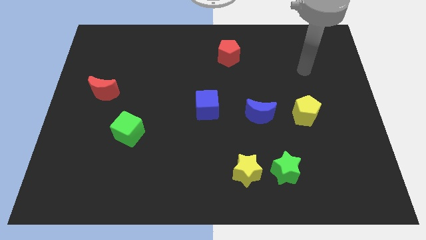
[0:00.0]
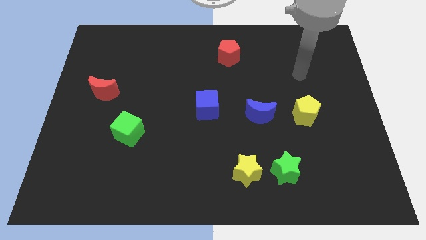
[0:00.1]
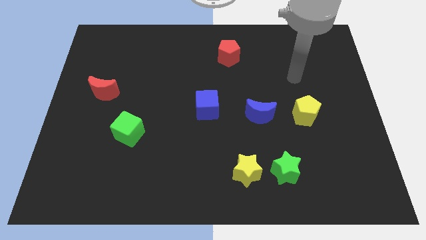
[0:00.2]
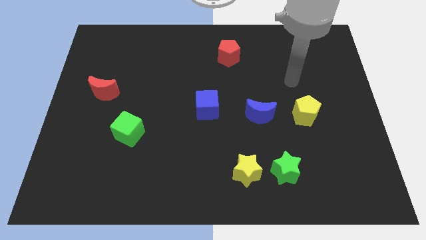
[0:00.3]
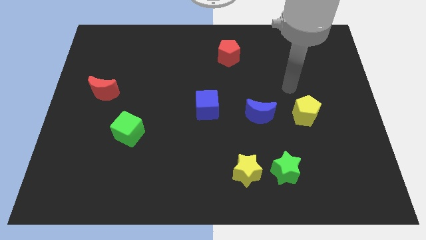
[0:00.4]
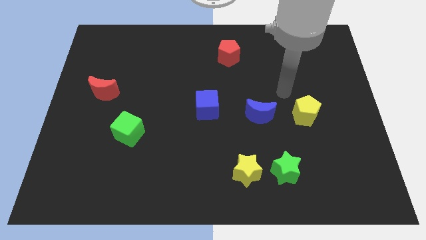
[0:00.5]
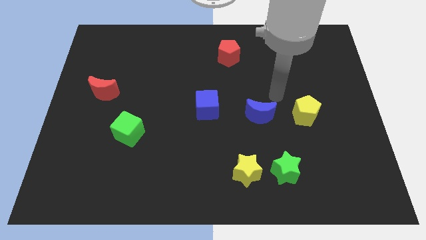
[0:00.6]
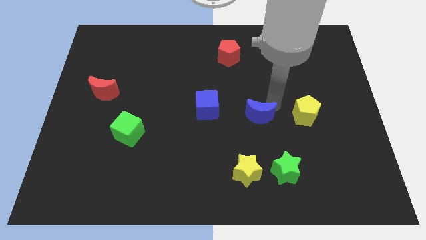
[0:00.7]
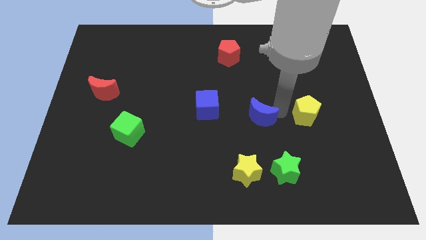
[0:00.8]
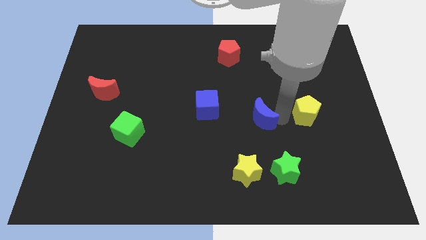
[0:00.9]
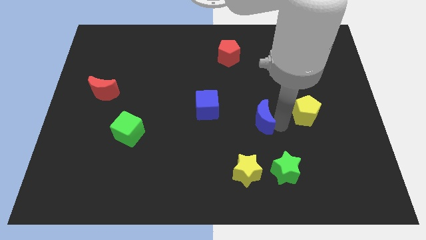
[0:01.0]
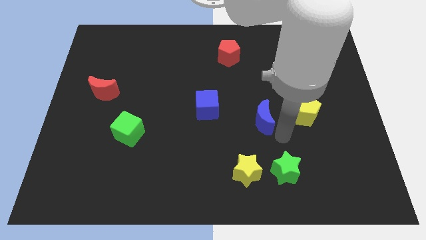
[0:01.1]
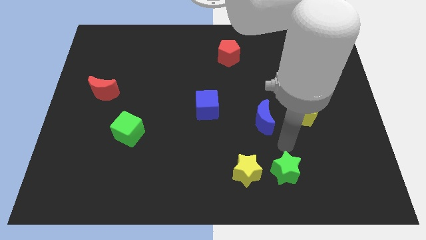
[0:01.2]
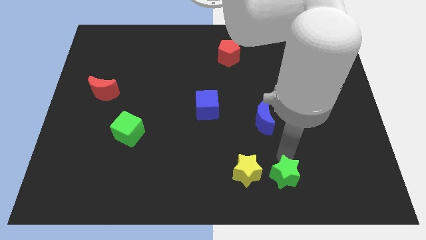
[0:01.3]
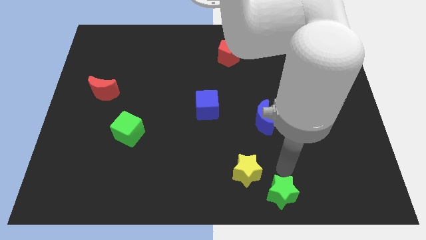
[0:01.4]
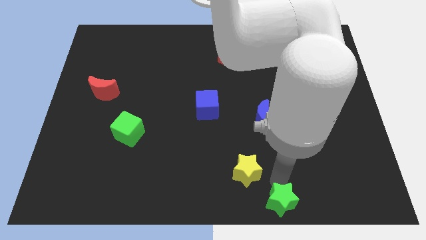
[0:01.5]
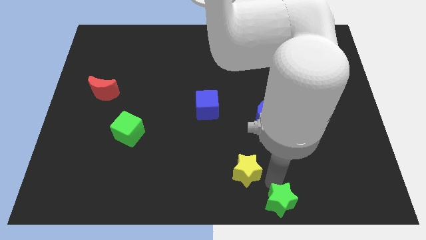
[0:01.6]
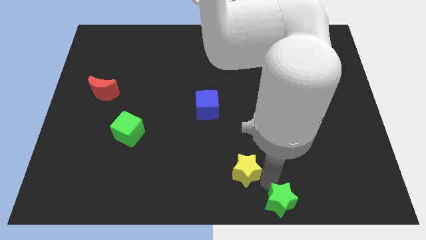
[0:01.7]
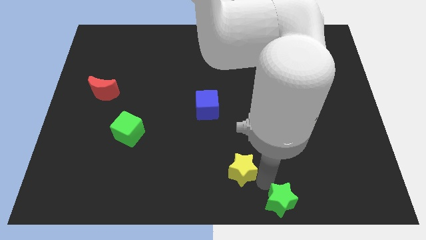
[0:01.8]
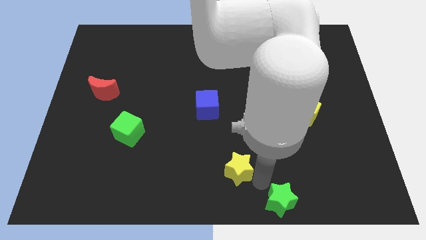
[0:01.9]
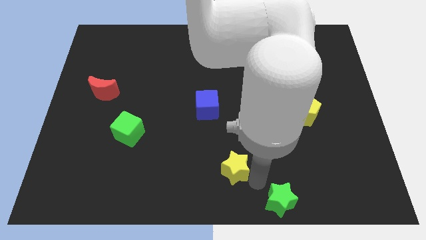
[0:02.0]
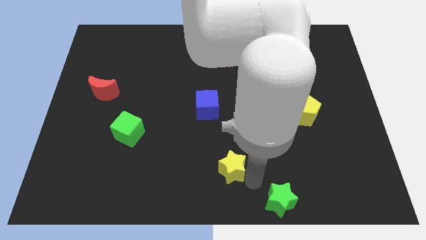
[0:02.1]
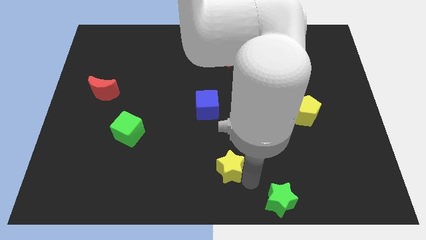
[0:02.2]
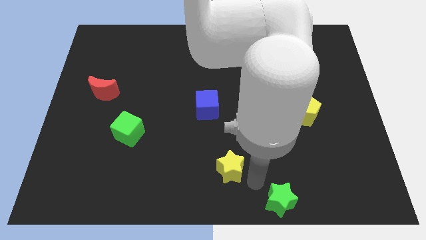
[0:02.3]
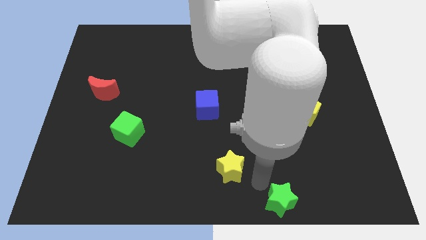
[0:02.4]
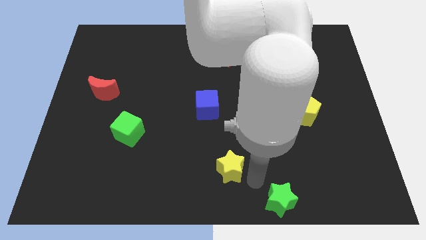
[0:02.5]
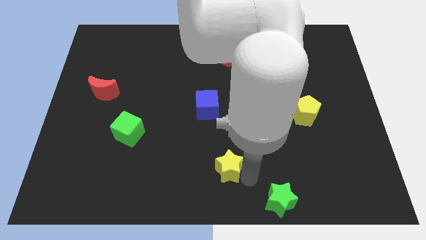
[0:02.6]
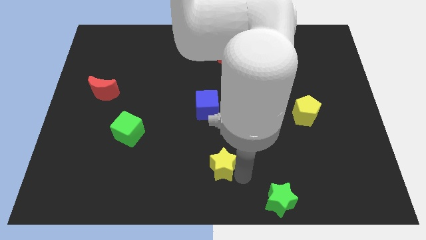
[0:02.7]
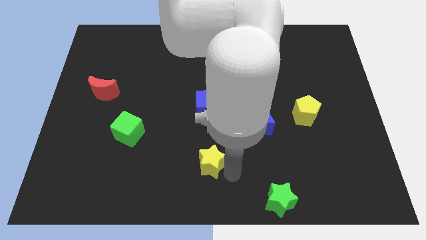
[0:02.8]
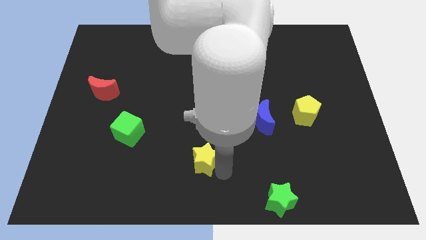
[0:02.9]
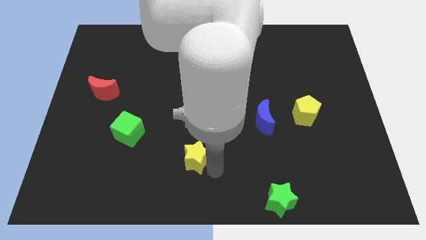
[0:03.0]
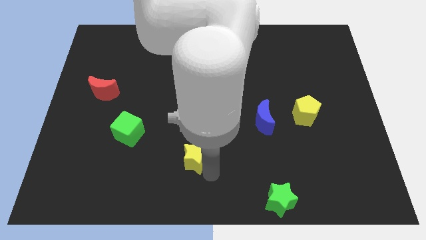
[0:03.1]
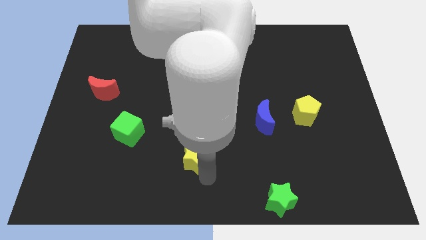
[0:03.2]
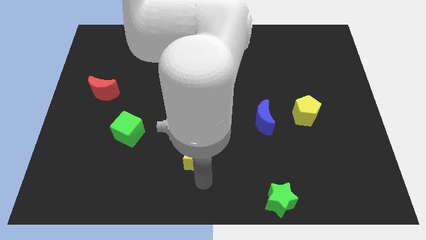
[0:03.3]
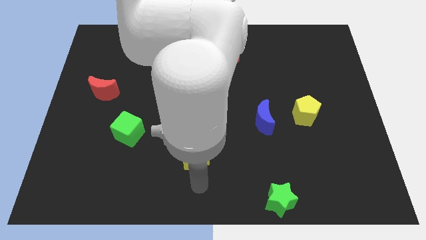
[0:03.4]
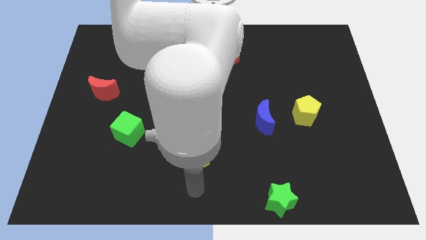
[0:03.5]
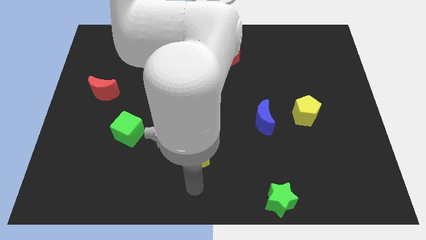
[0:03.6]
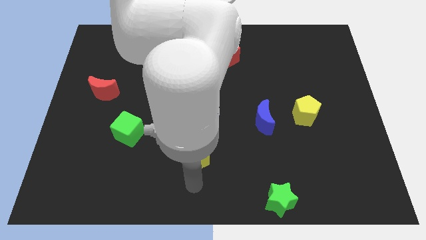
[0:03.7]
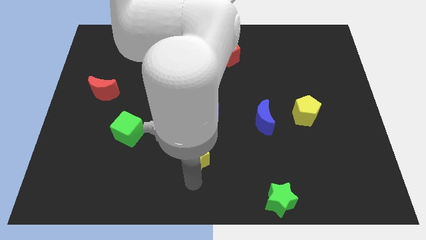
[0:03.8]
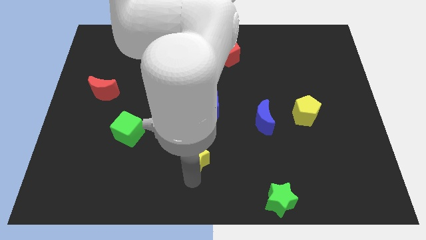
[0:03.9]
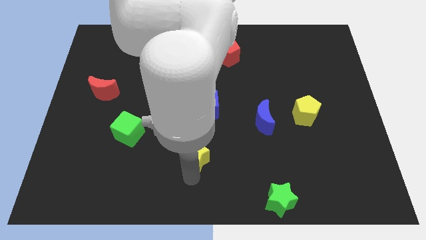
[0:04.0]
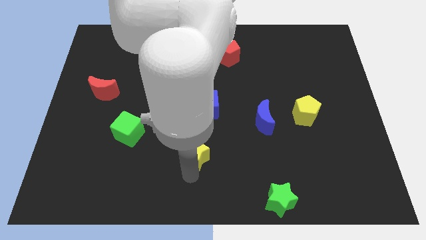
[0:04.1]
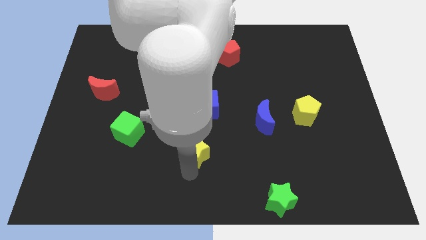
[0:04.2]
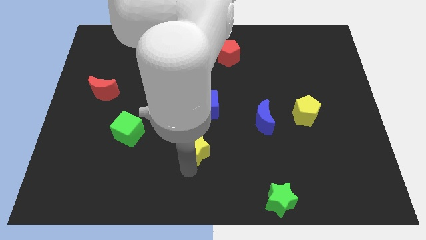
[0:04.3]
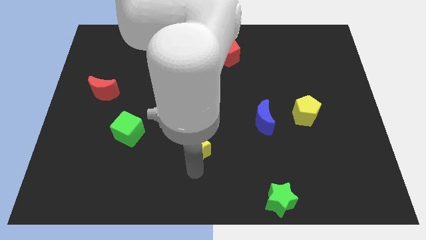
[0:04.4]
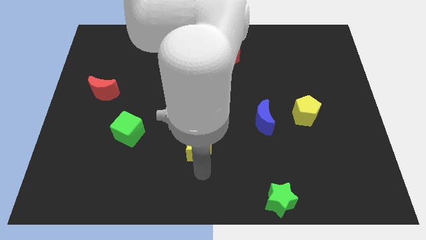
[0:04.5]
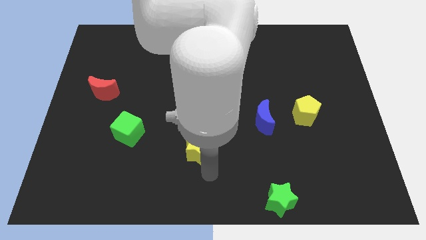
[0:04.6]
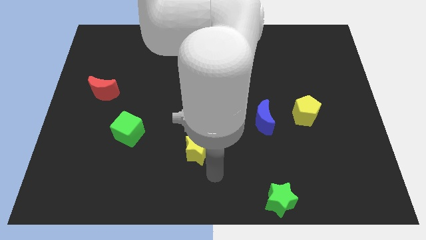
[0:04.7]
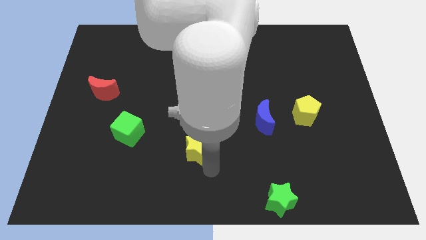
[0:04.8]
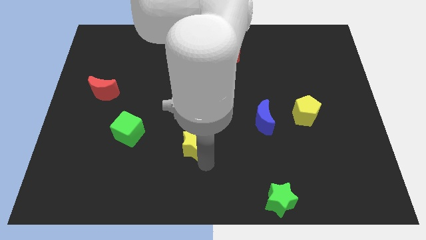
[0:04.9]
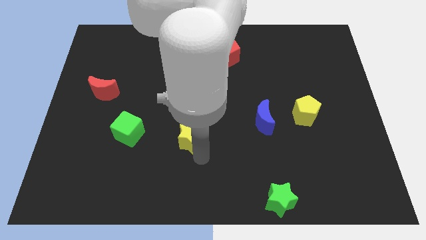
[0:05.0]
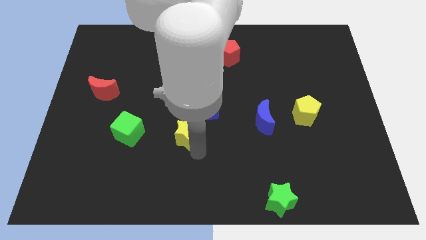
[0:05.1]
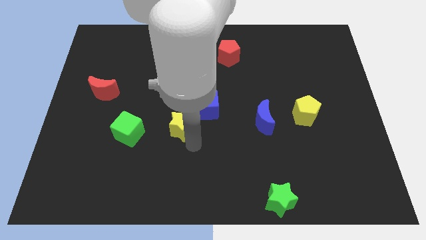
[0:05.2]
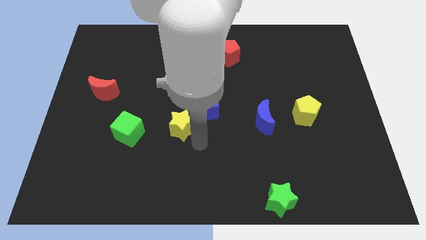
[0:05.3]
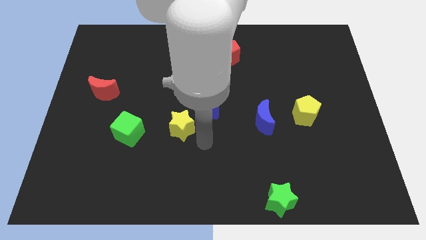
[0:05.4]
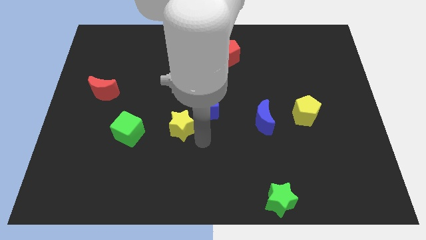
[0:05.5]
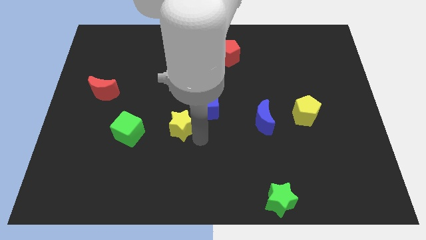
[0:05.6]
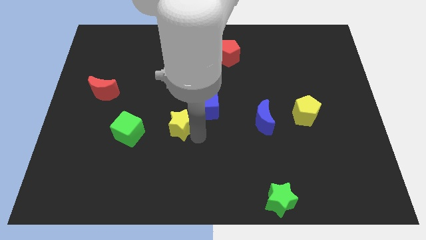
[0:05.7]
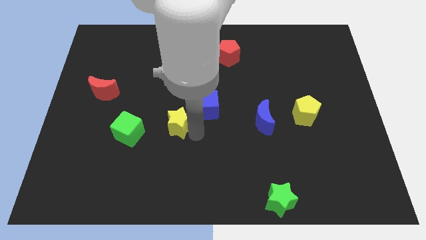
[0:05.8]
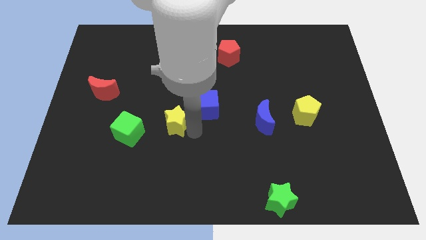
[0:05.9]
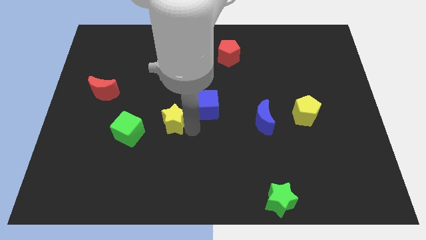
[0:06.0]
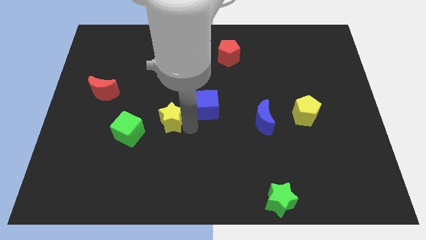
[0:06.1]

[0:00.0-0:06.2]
push the yellow star to the top right side of the green cube

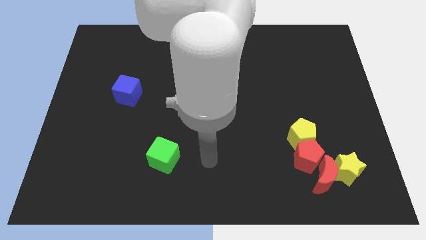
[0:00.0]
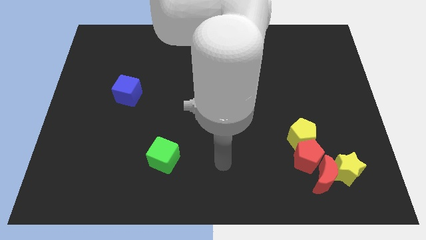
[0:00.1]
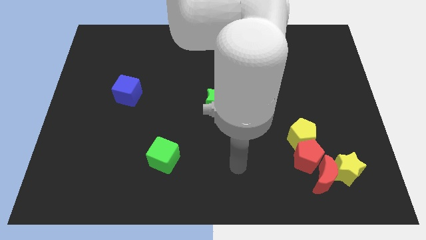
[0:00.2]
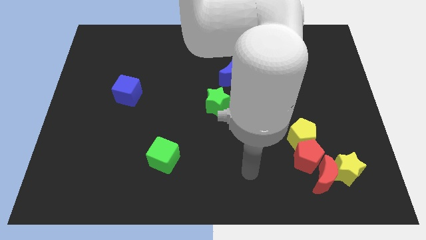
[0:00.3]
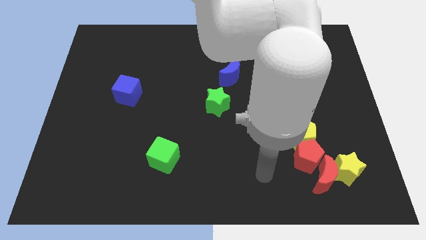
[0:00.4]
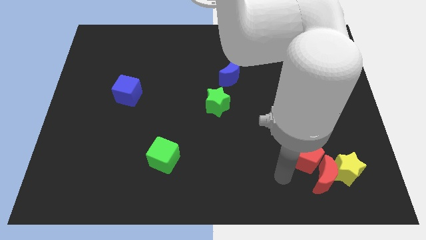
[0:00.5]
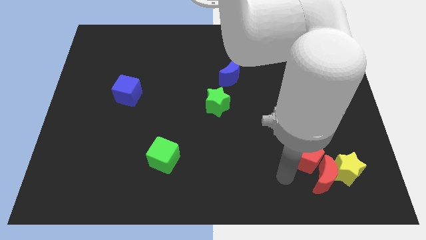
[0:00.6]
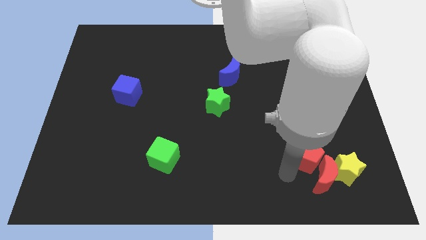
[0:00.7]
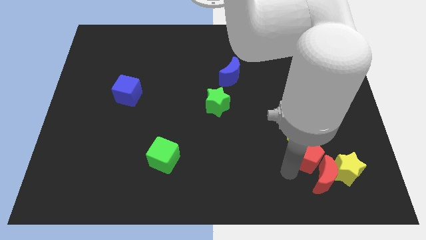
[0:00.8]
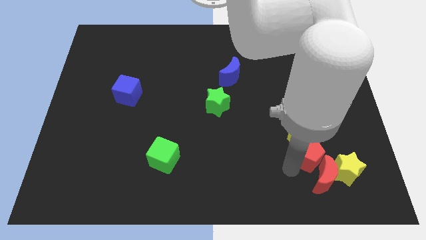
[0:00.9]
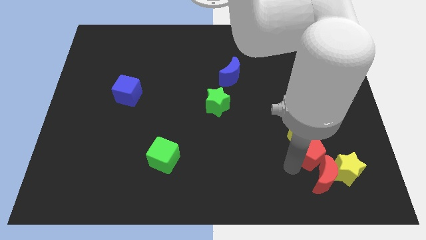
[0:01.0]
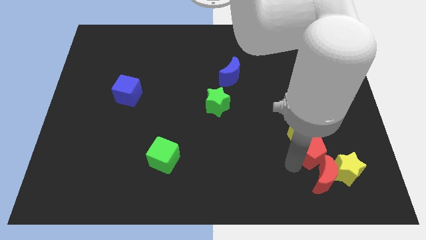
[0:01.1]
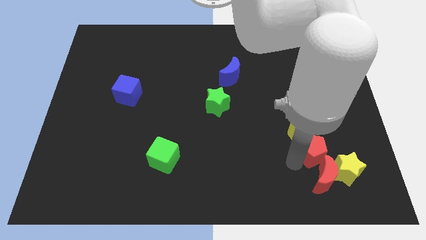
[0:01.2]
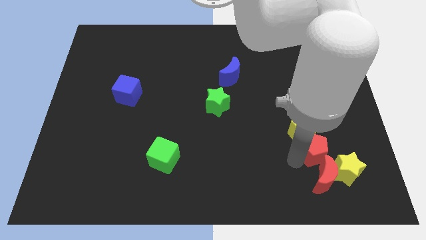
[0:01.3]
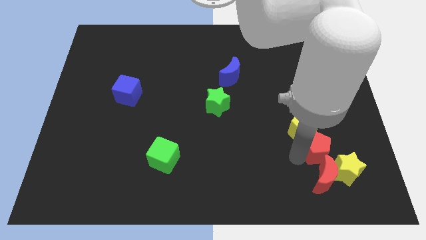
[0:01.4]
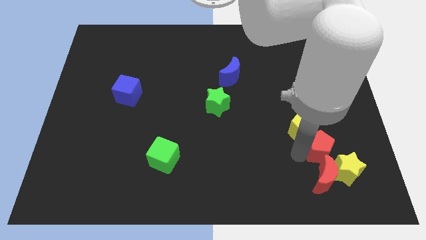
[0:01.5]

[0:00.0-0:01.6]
put the red pentagon above the yellow star
